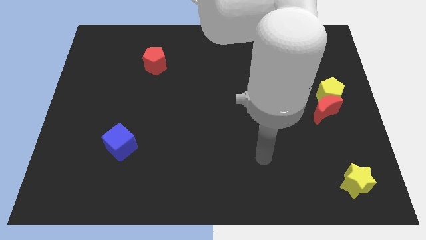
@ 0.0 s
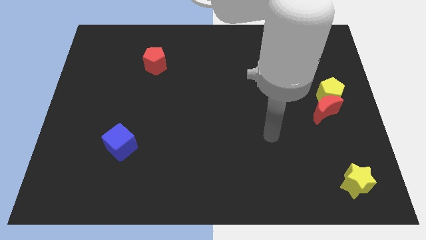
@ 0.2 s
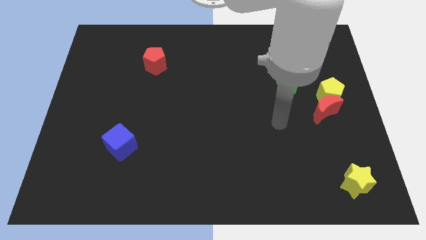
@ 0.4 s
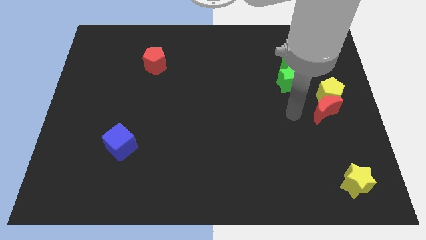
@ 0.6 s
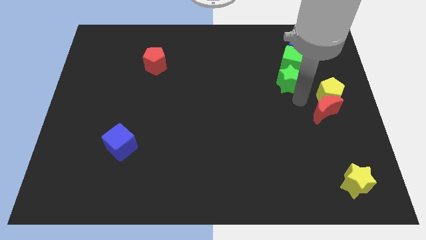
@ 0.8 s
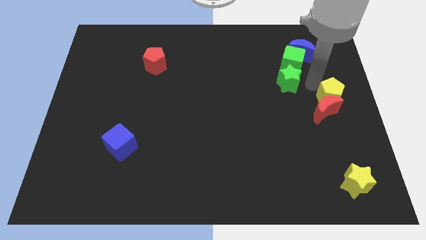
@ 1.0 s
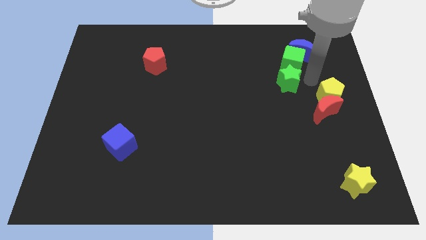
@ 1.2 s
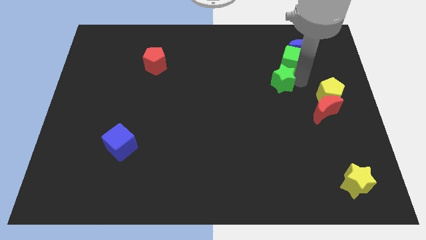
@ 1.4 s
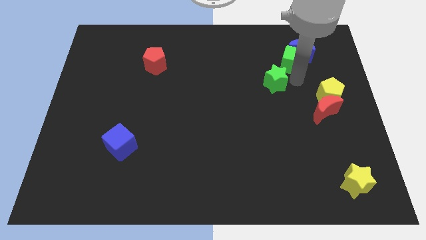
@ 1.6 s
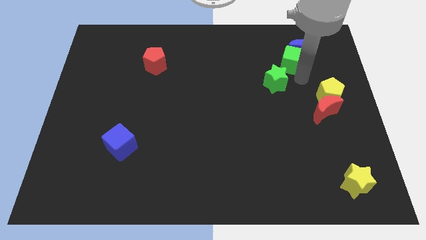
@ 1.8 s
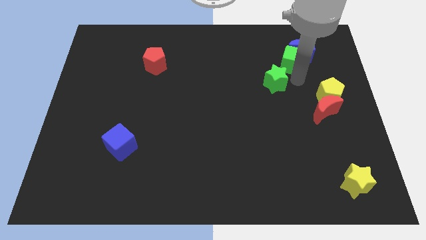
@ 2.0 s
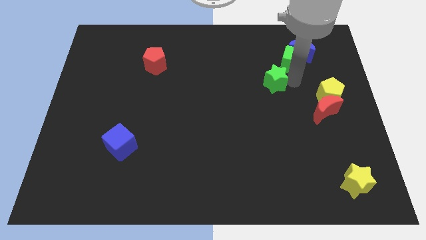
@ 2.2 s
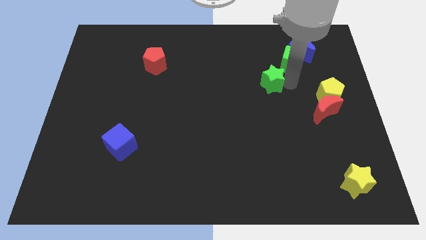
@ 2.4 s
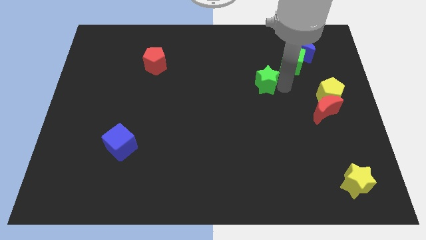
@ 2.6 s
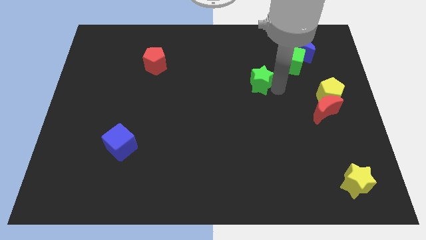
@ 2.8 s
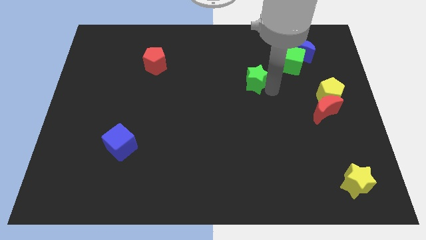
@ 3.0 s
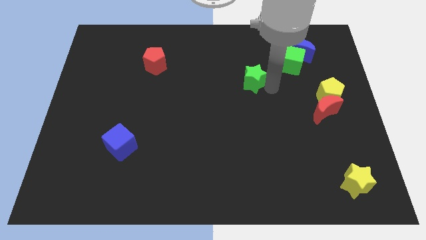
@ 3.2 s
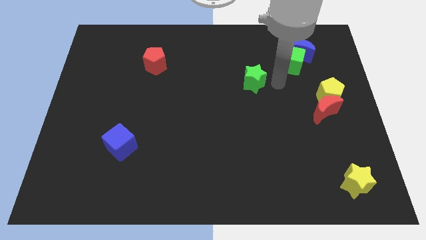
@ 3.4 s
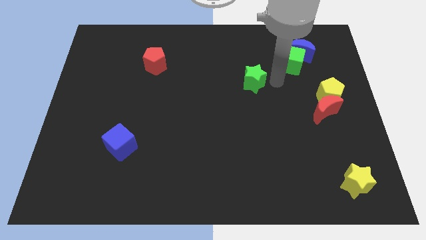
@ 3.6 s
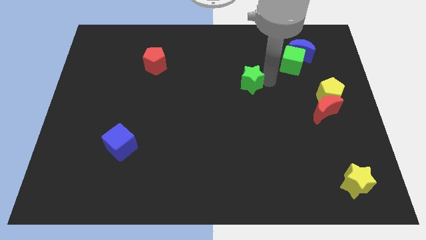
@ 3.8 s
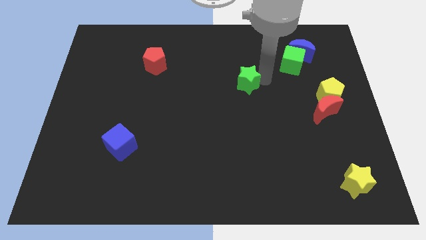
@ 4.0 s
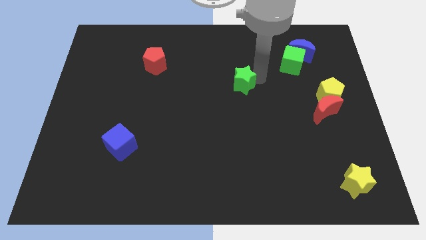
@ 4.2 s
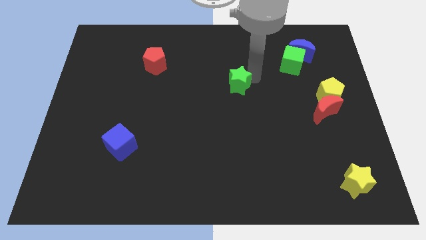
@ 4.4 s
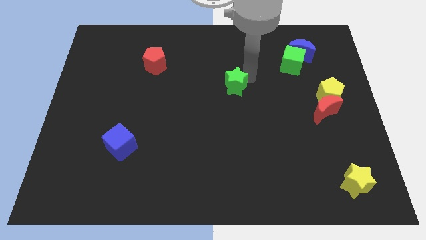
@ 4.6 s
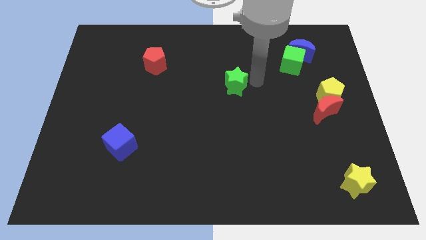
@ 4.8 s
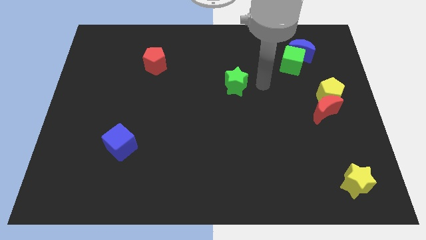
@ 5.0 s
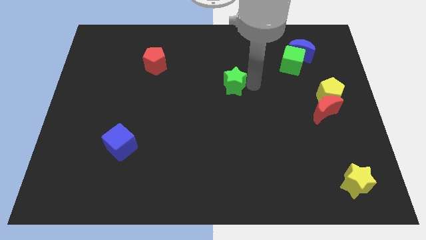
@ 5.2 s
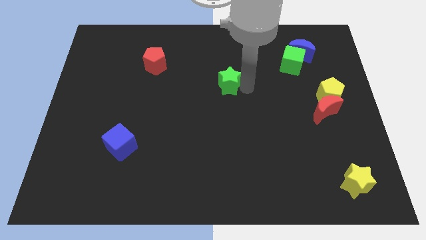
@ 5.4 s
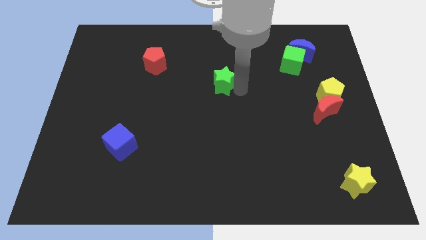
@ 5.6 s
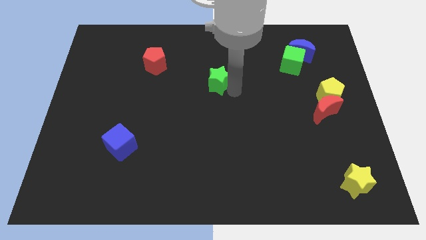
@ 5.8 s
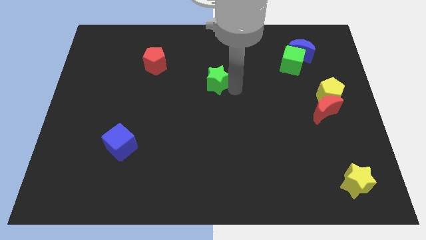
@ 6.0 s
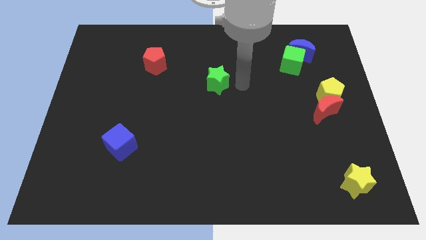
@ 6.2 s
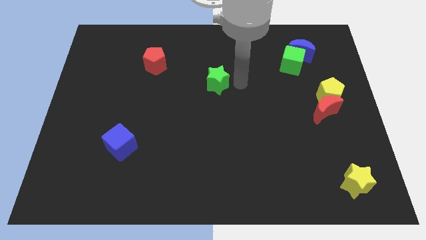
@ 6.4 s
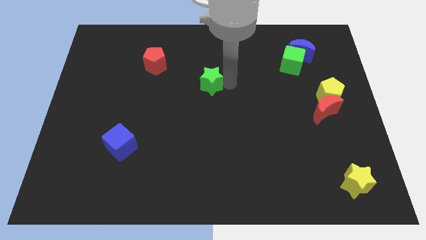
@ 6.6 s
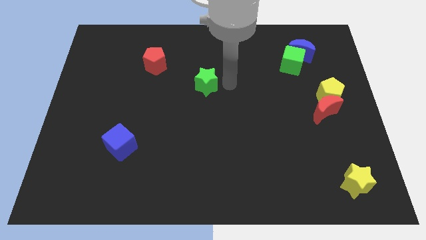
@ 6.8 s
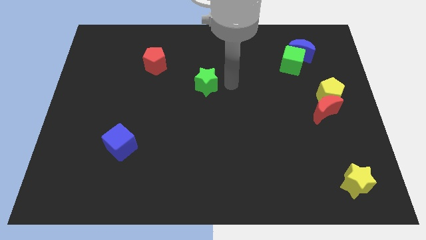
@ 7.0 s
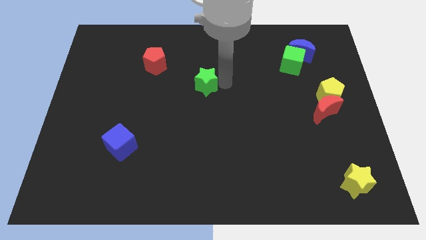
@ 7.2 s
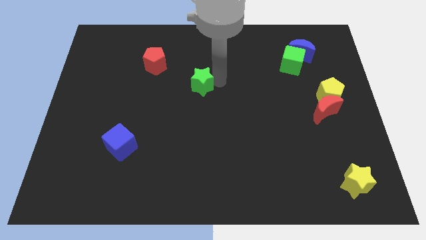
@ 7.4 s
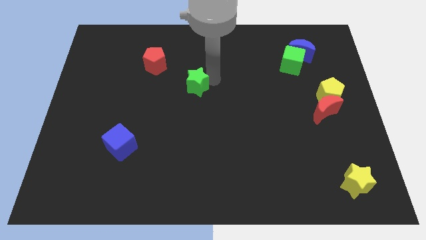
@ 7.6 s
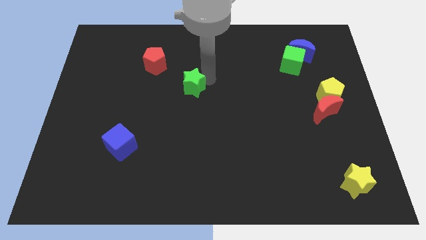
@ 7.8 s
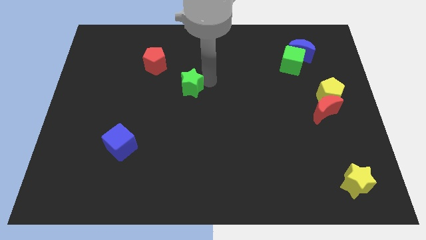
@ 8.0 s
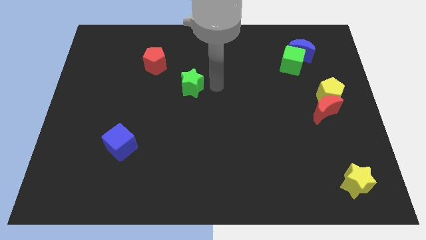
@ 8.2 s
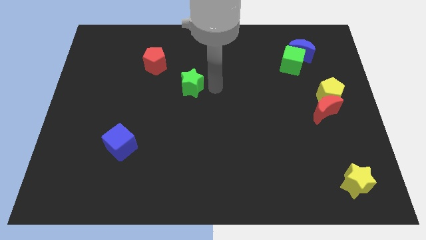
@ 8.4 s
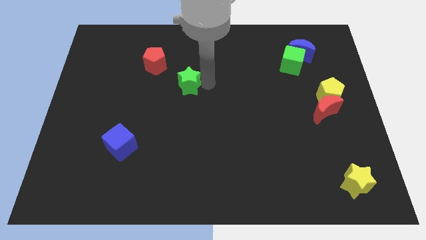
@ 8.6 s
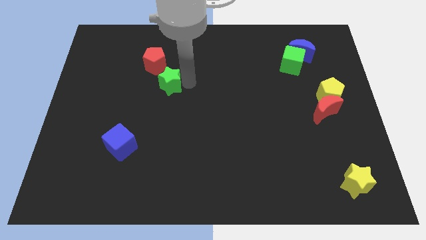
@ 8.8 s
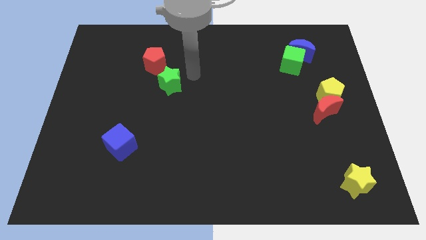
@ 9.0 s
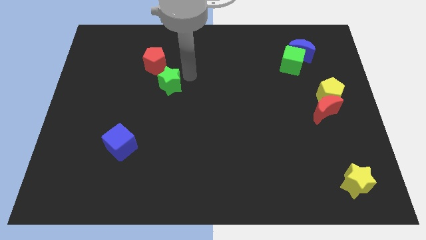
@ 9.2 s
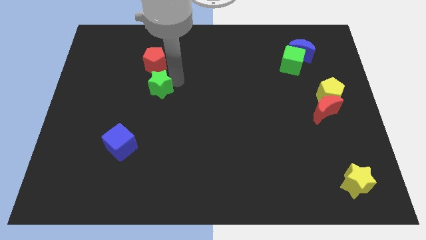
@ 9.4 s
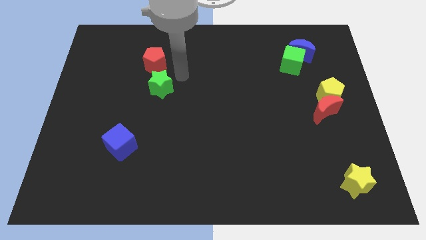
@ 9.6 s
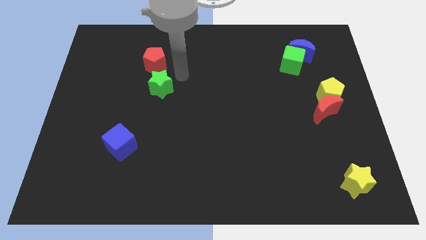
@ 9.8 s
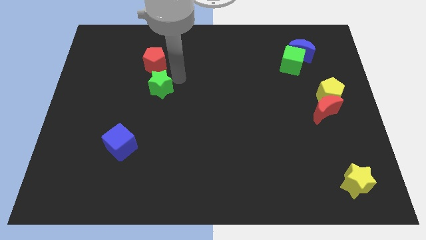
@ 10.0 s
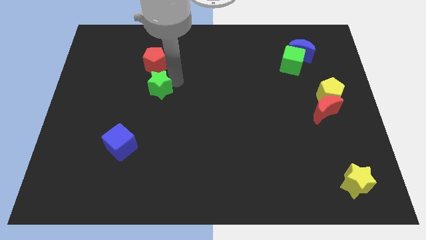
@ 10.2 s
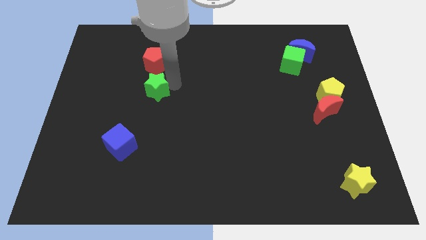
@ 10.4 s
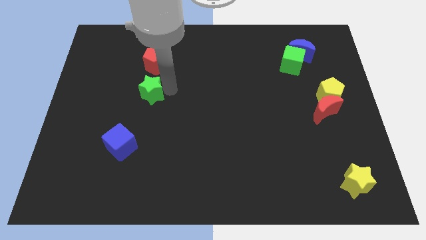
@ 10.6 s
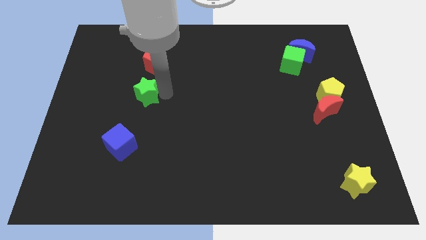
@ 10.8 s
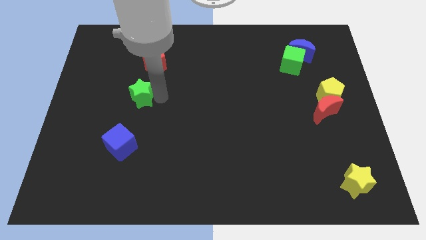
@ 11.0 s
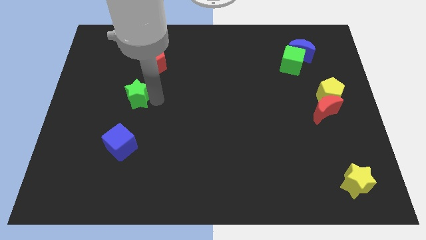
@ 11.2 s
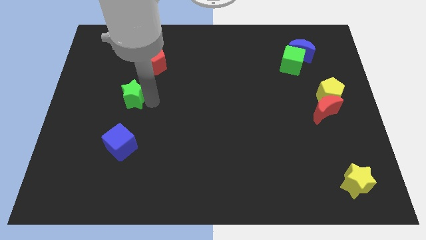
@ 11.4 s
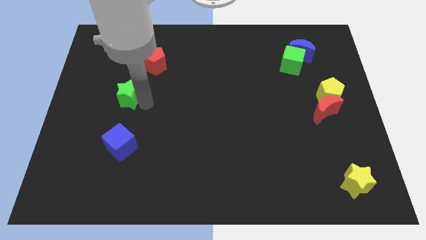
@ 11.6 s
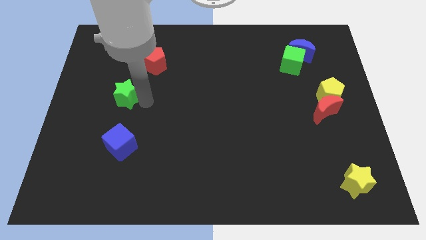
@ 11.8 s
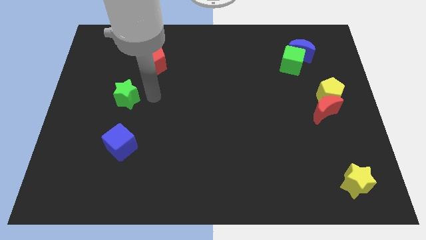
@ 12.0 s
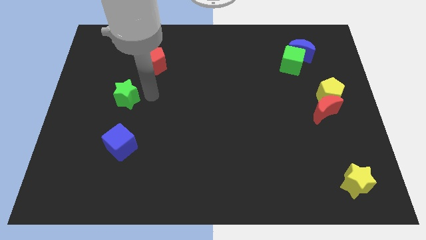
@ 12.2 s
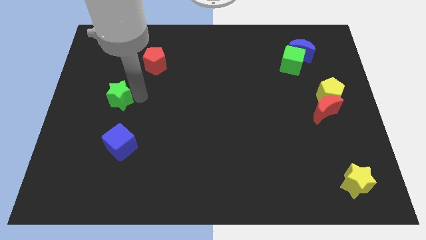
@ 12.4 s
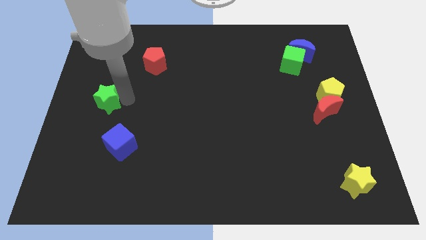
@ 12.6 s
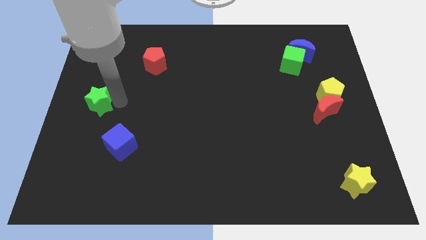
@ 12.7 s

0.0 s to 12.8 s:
slide the green star to the left side of the board
